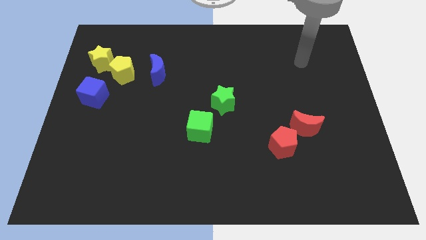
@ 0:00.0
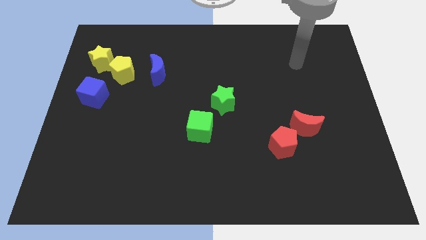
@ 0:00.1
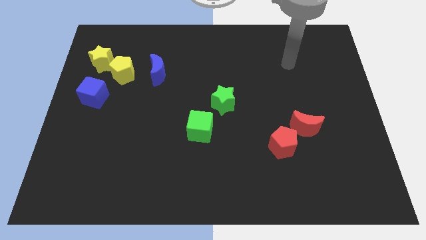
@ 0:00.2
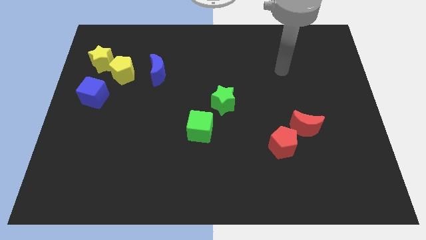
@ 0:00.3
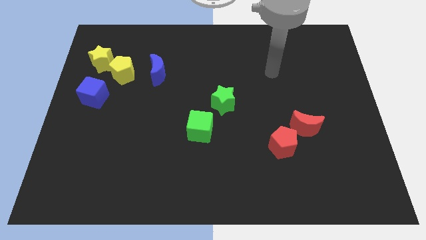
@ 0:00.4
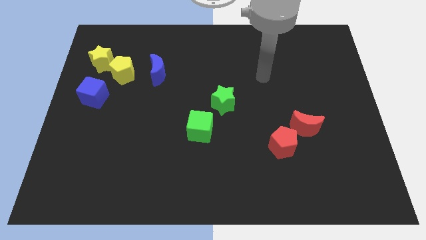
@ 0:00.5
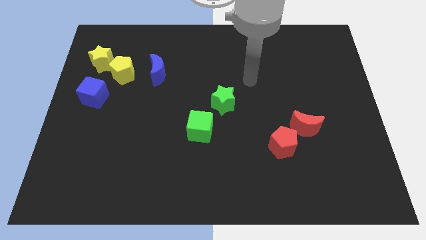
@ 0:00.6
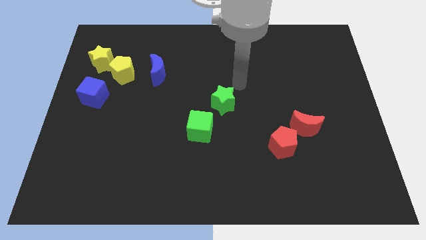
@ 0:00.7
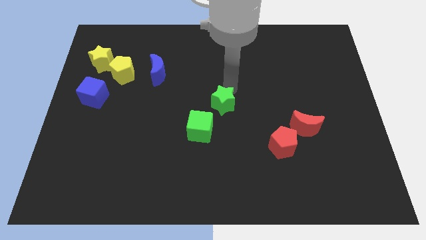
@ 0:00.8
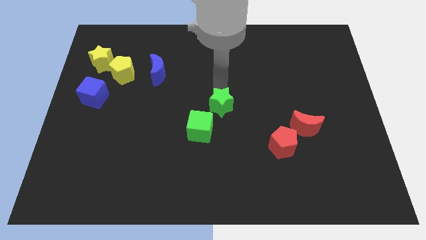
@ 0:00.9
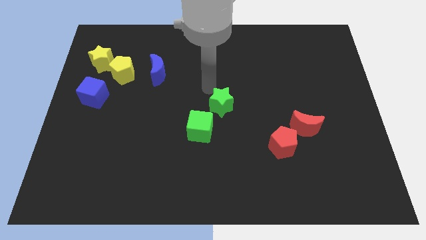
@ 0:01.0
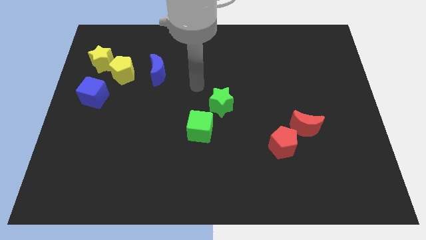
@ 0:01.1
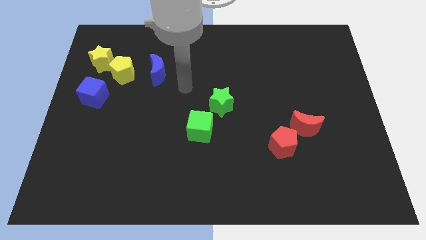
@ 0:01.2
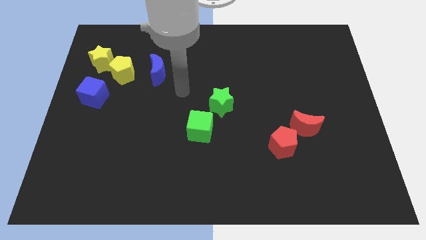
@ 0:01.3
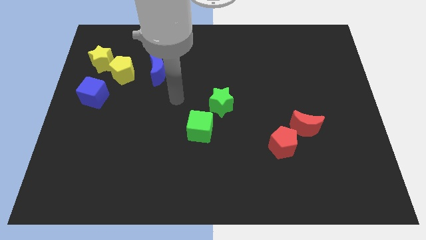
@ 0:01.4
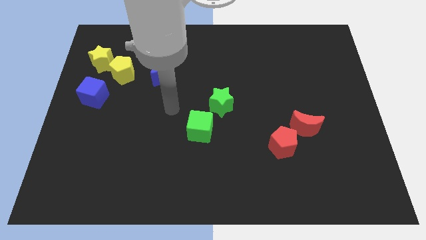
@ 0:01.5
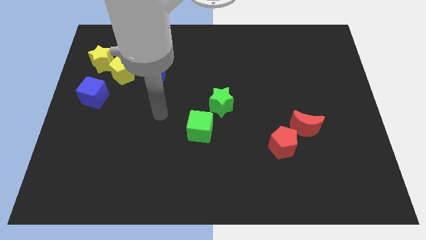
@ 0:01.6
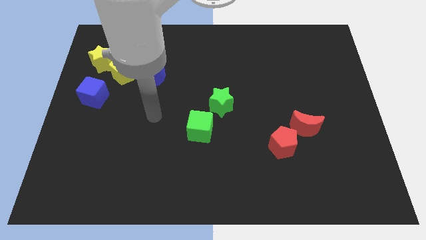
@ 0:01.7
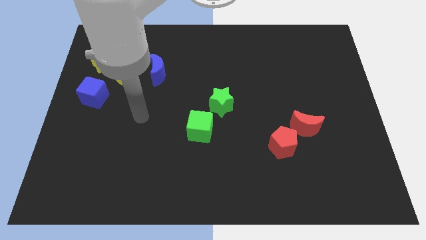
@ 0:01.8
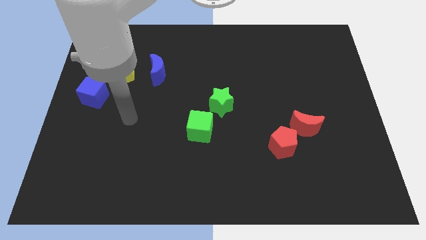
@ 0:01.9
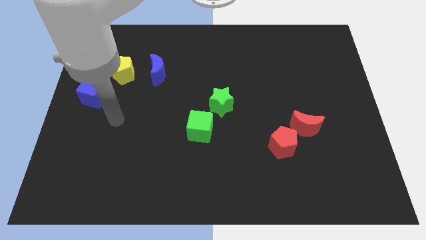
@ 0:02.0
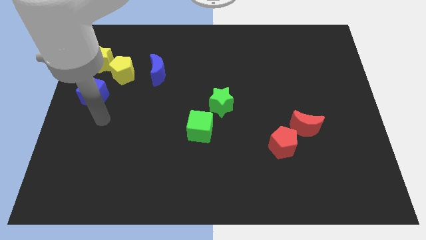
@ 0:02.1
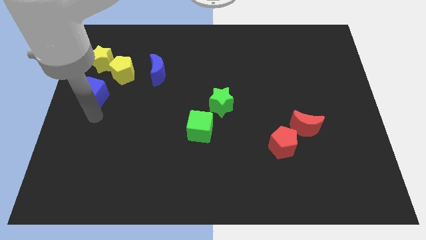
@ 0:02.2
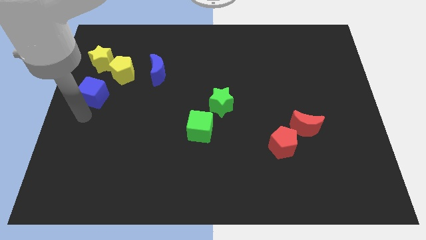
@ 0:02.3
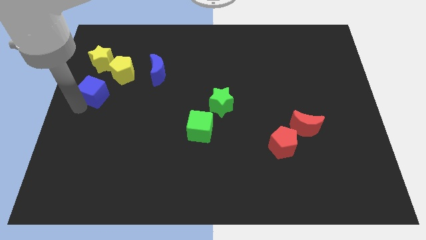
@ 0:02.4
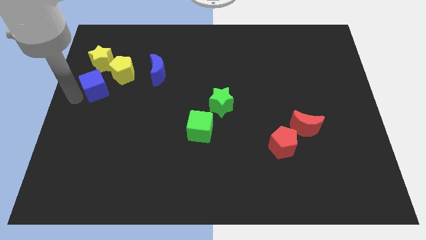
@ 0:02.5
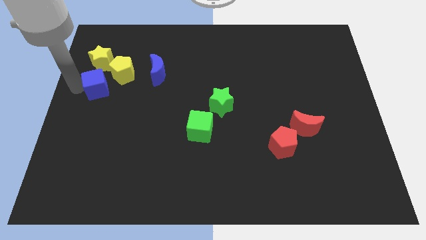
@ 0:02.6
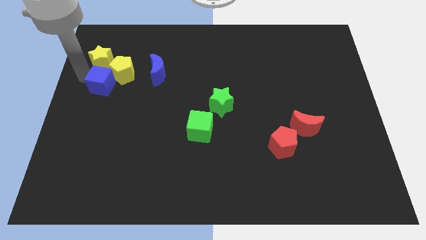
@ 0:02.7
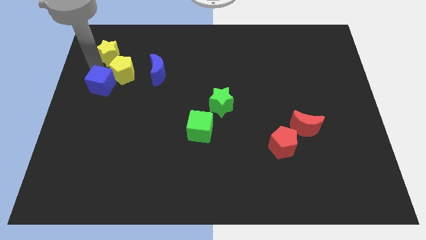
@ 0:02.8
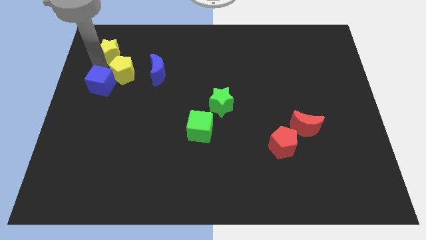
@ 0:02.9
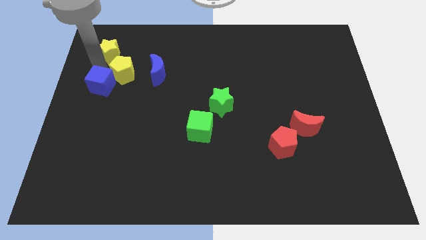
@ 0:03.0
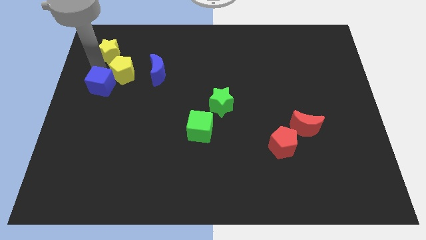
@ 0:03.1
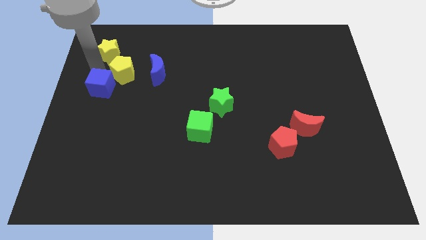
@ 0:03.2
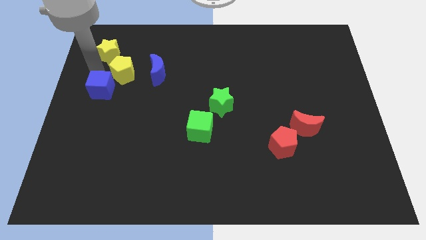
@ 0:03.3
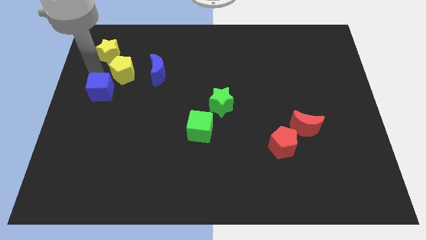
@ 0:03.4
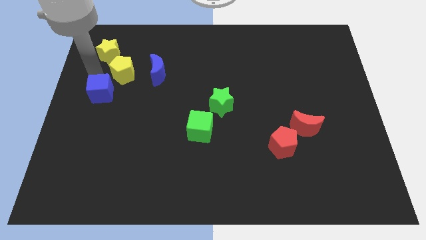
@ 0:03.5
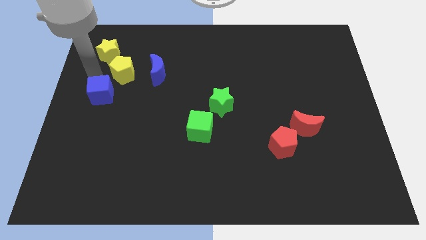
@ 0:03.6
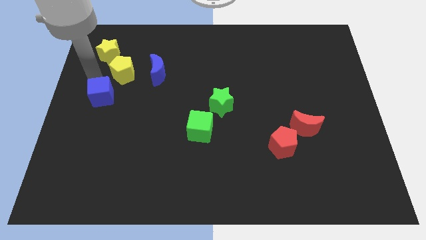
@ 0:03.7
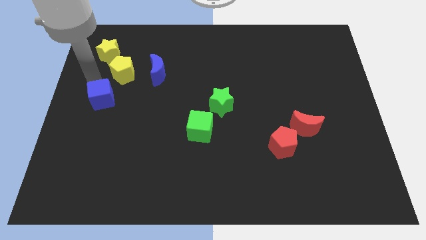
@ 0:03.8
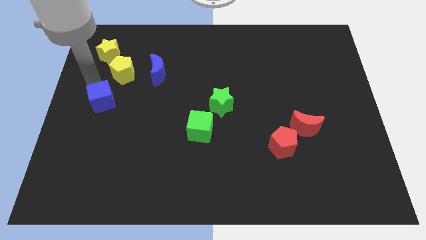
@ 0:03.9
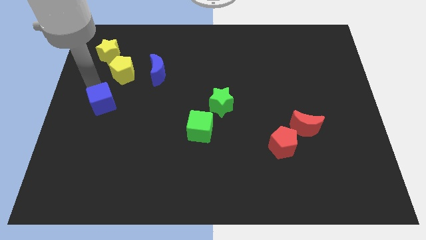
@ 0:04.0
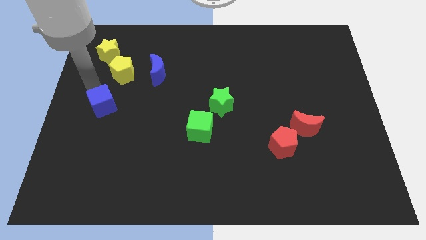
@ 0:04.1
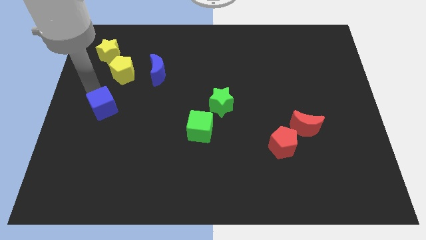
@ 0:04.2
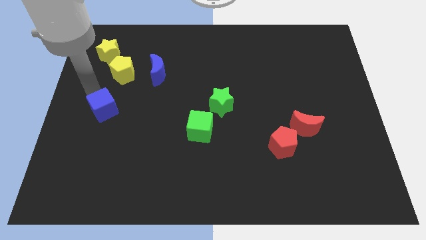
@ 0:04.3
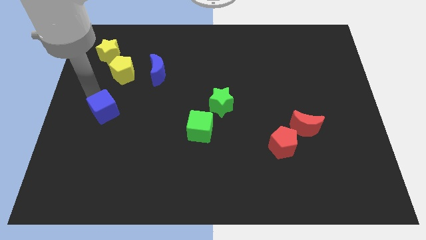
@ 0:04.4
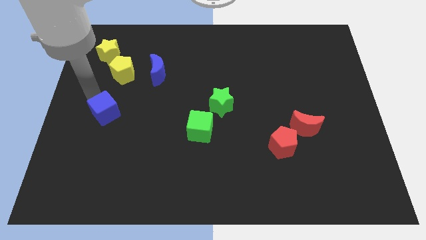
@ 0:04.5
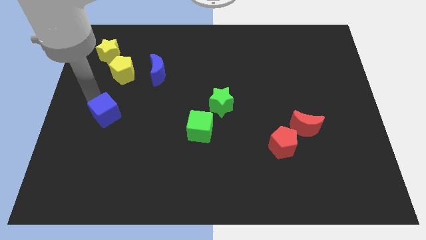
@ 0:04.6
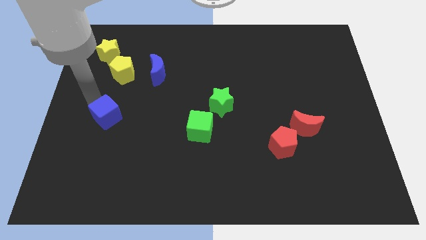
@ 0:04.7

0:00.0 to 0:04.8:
slide the blue cube downwards and to the right a bit

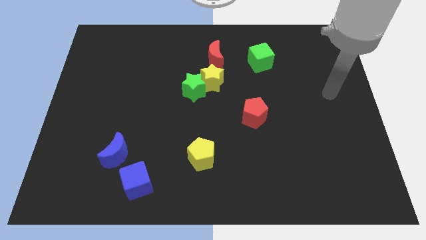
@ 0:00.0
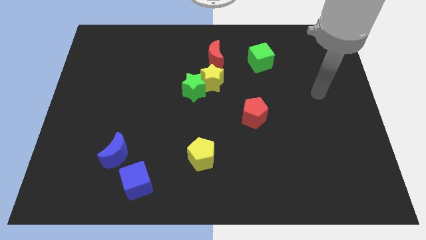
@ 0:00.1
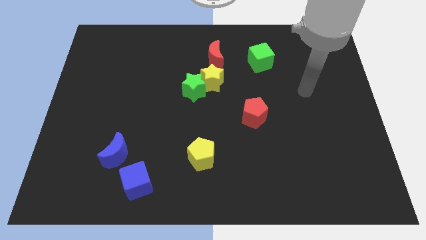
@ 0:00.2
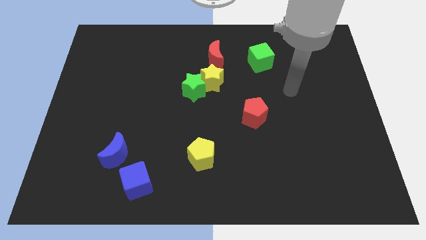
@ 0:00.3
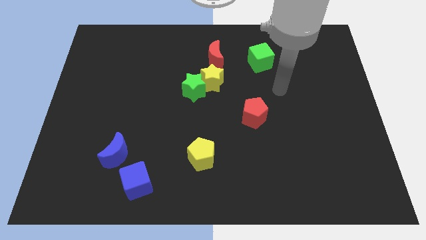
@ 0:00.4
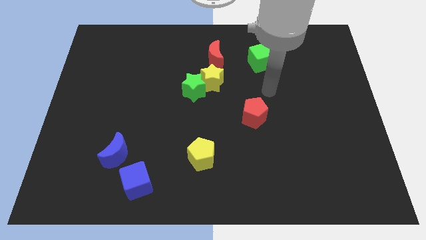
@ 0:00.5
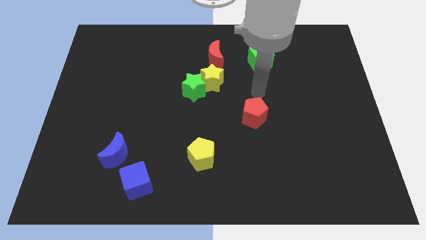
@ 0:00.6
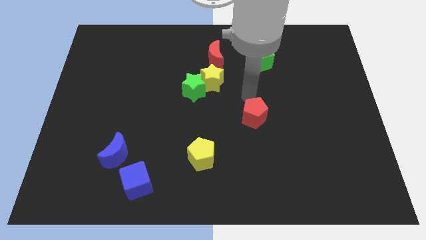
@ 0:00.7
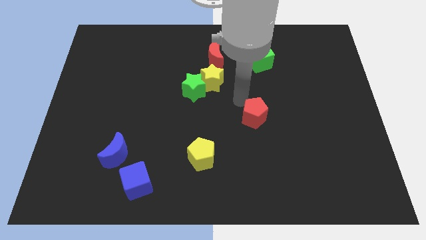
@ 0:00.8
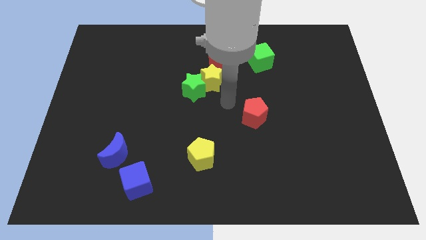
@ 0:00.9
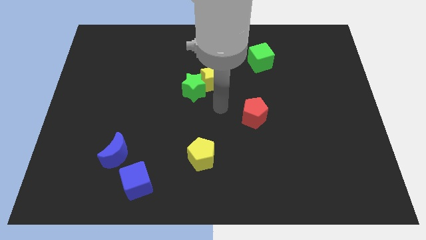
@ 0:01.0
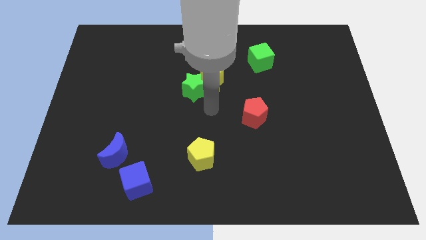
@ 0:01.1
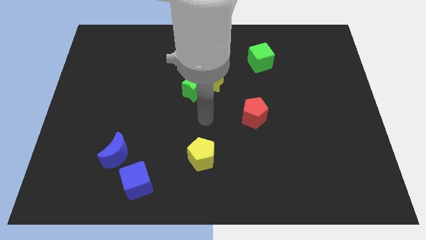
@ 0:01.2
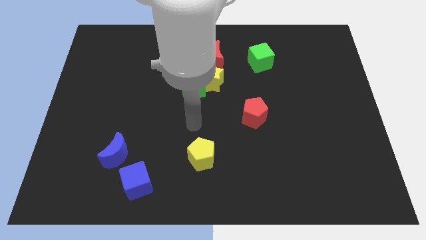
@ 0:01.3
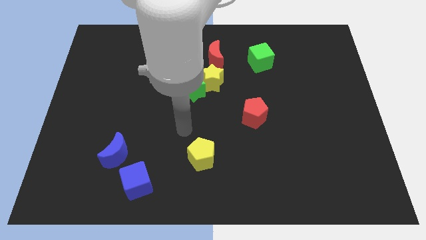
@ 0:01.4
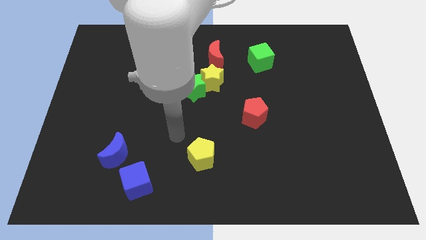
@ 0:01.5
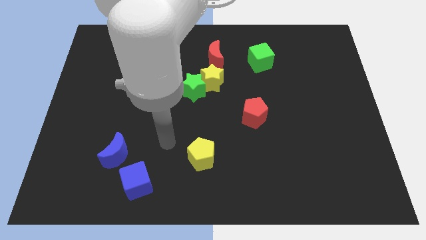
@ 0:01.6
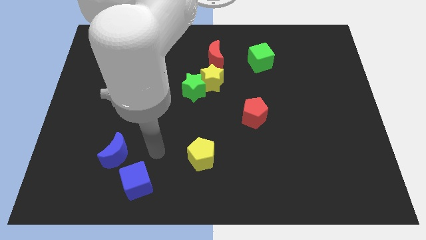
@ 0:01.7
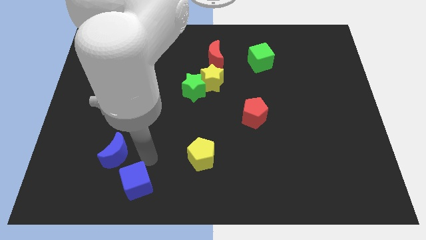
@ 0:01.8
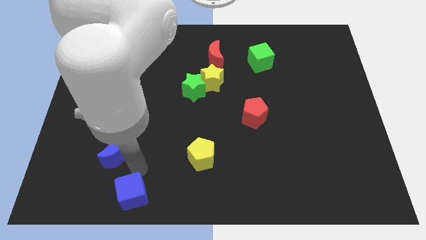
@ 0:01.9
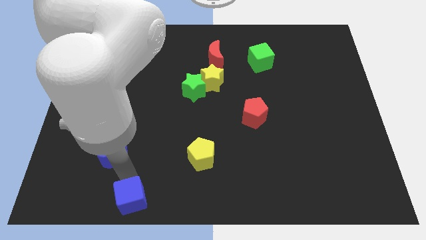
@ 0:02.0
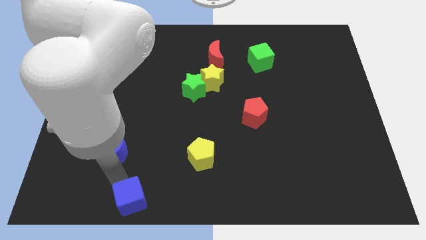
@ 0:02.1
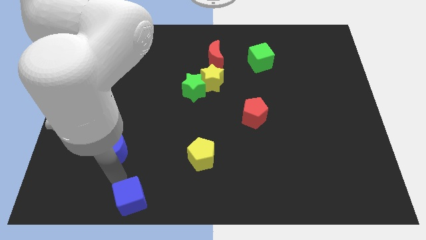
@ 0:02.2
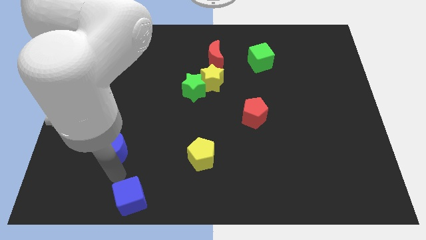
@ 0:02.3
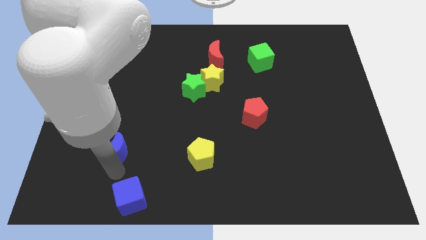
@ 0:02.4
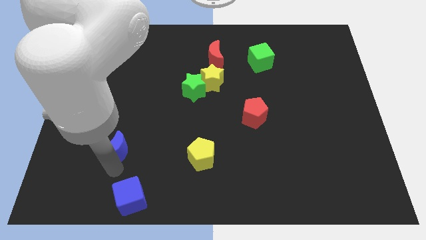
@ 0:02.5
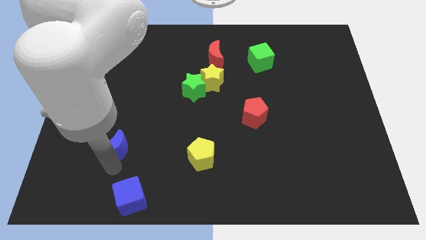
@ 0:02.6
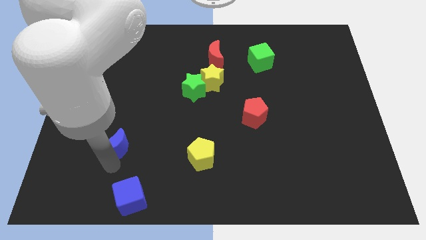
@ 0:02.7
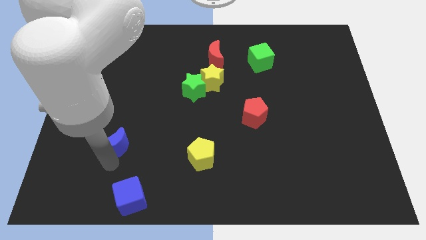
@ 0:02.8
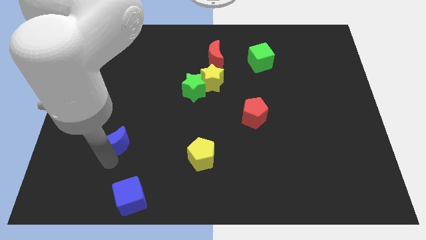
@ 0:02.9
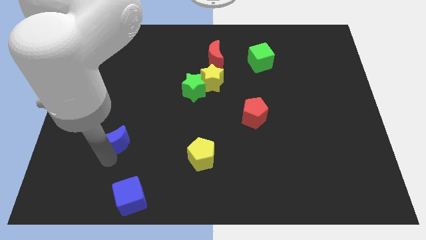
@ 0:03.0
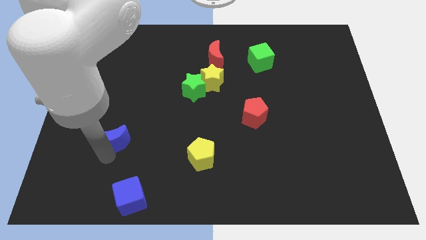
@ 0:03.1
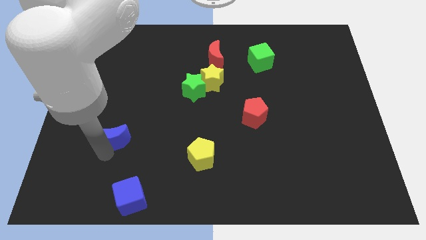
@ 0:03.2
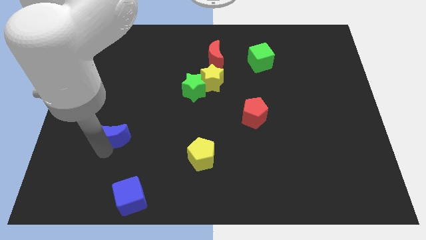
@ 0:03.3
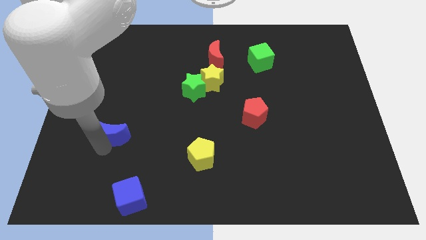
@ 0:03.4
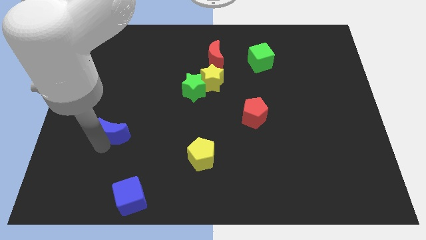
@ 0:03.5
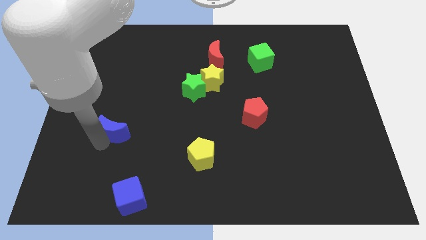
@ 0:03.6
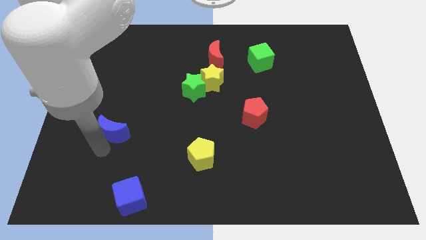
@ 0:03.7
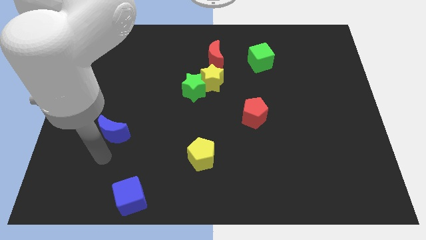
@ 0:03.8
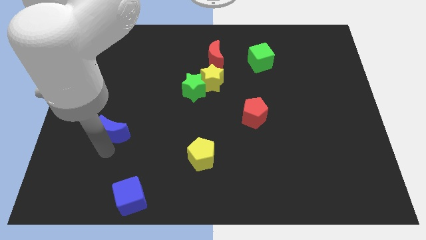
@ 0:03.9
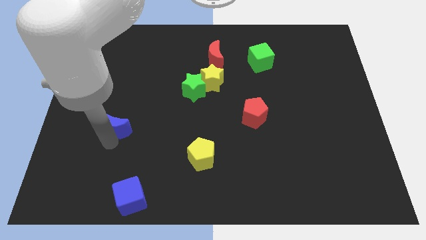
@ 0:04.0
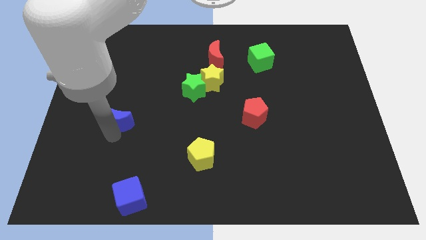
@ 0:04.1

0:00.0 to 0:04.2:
slide the blue moon somewhat up
